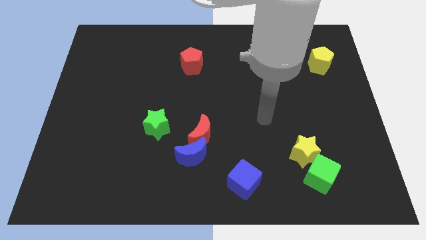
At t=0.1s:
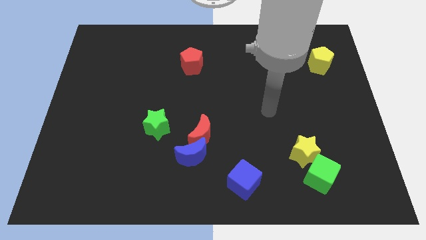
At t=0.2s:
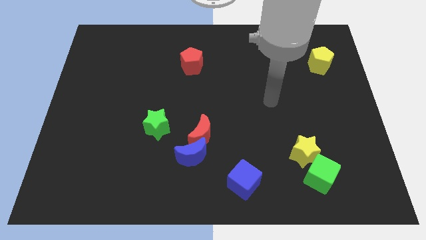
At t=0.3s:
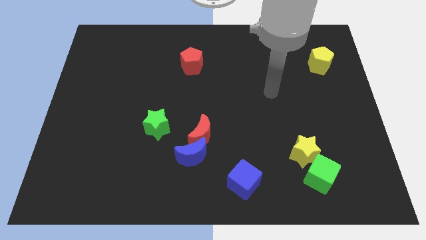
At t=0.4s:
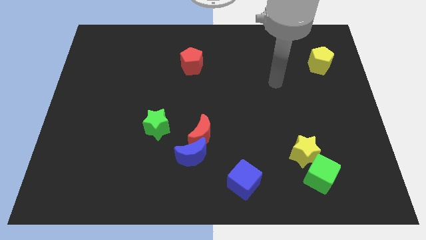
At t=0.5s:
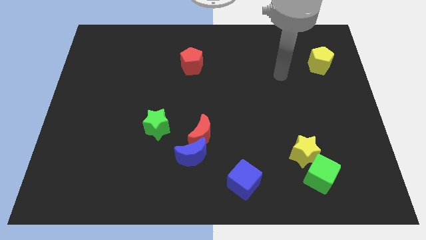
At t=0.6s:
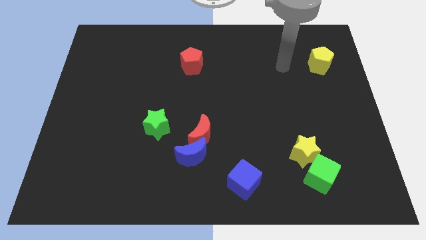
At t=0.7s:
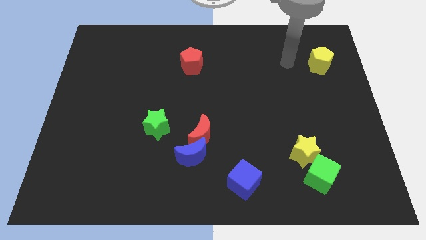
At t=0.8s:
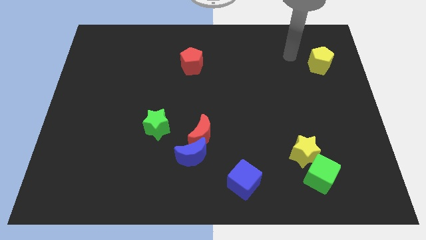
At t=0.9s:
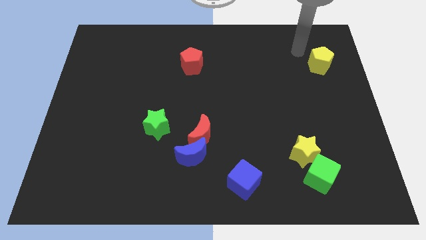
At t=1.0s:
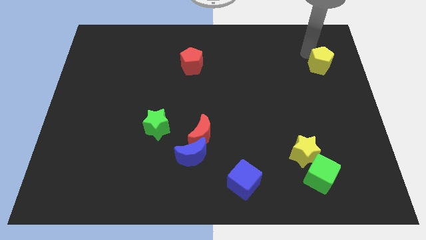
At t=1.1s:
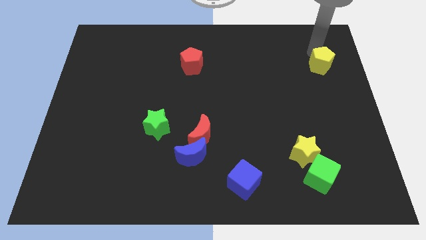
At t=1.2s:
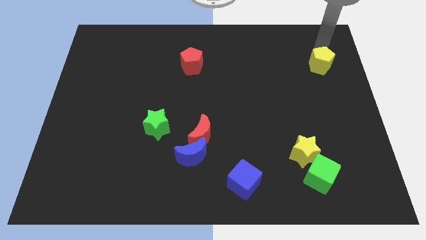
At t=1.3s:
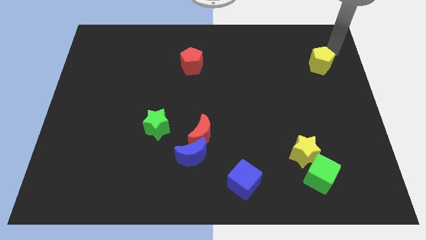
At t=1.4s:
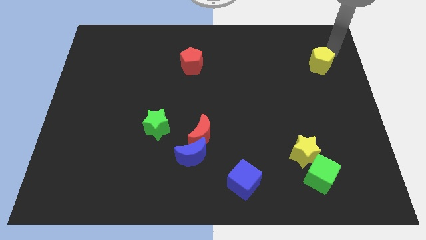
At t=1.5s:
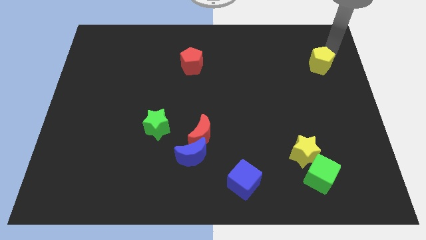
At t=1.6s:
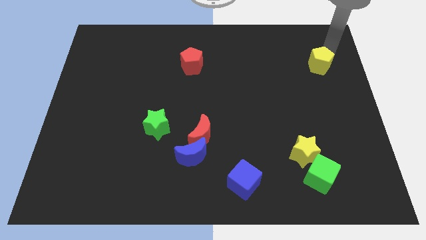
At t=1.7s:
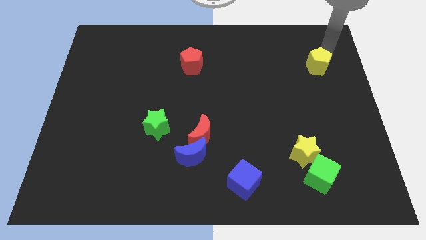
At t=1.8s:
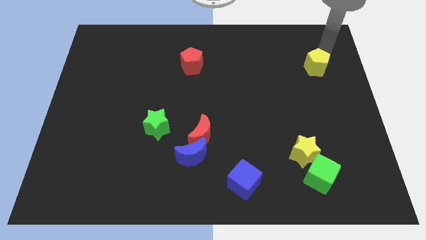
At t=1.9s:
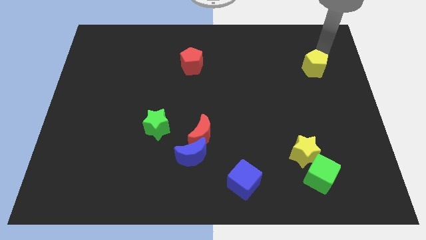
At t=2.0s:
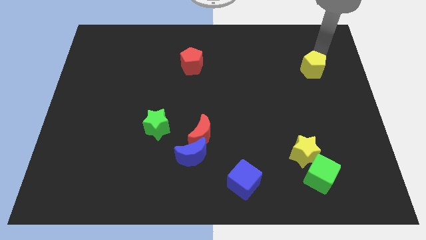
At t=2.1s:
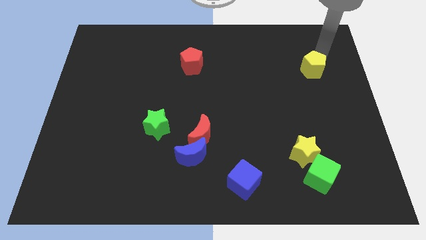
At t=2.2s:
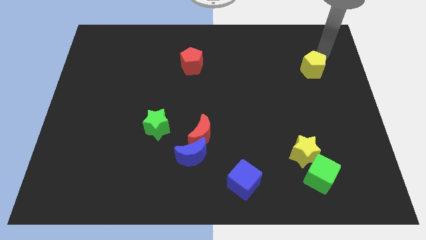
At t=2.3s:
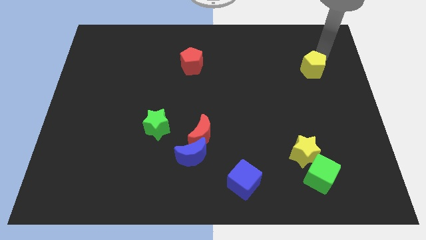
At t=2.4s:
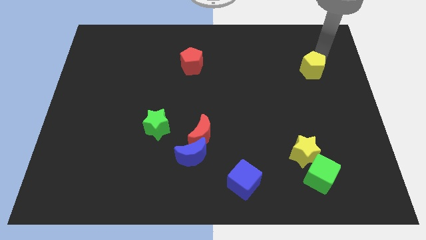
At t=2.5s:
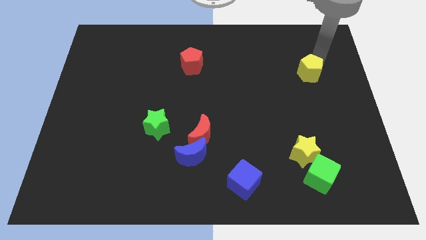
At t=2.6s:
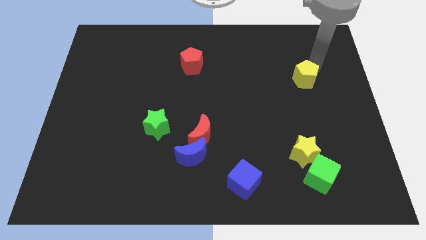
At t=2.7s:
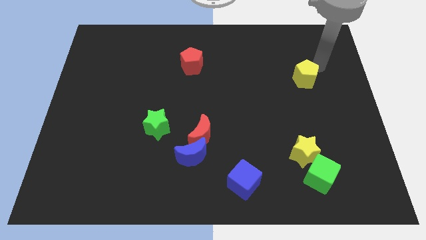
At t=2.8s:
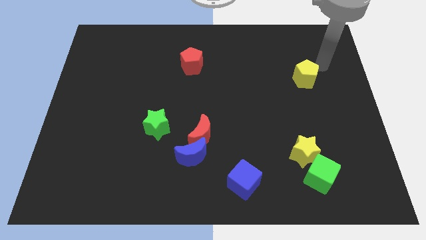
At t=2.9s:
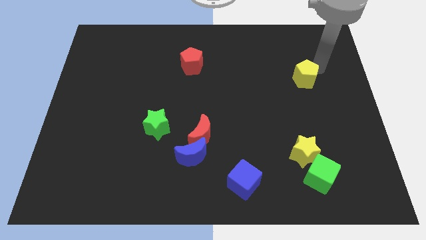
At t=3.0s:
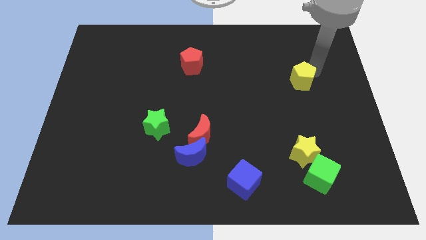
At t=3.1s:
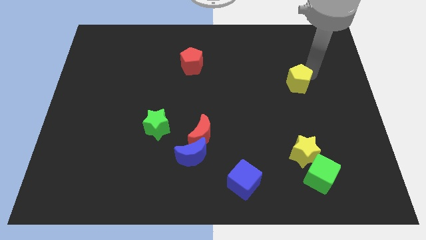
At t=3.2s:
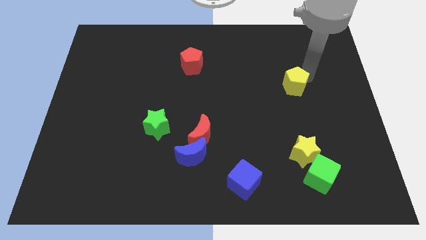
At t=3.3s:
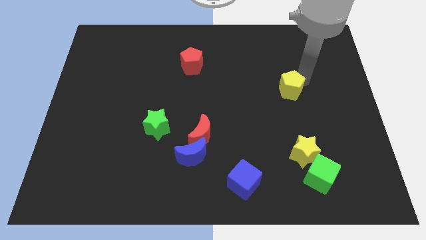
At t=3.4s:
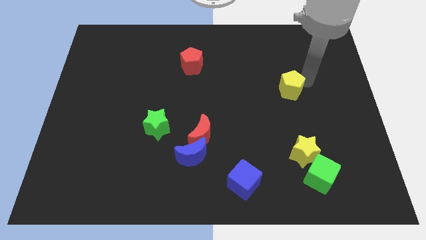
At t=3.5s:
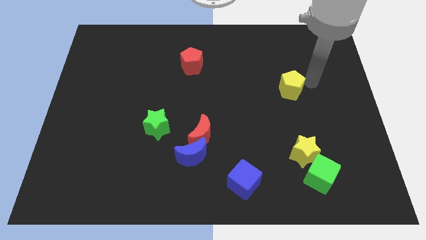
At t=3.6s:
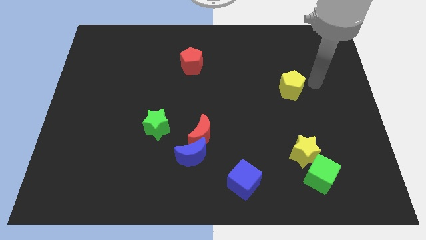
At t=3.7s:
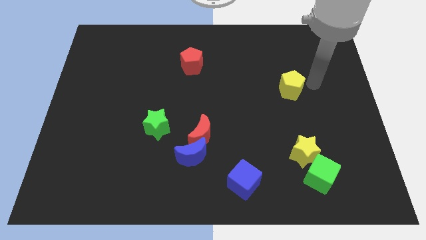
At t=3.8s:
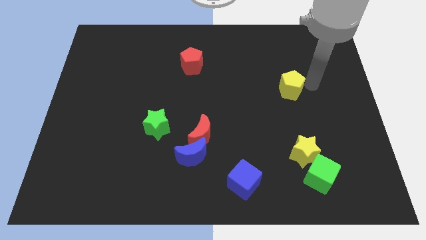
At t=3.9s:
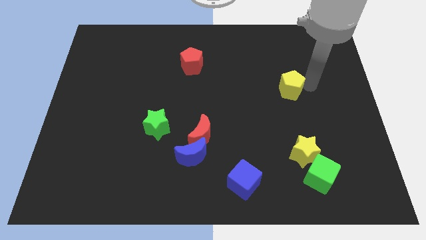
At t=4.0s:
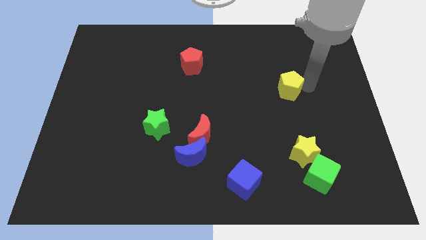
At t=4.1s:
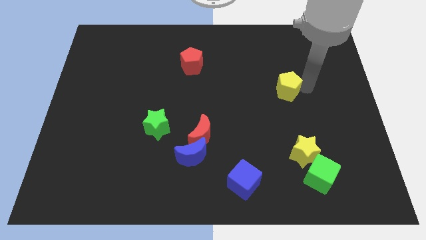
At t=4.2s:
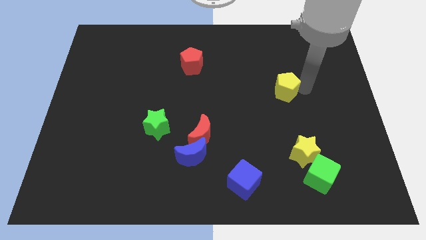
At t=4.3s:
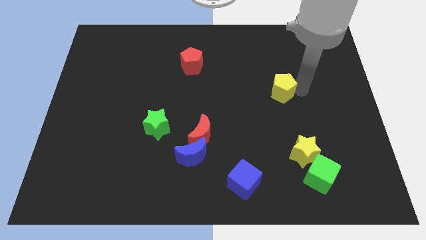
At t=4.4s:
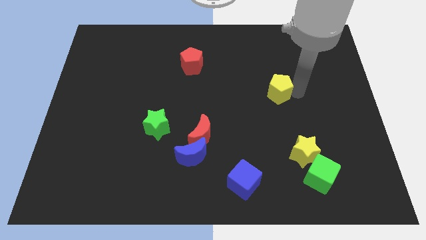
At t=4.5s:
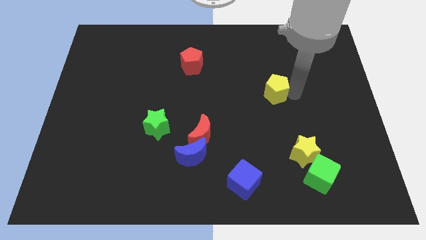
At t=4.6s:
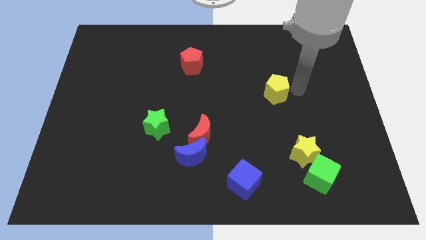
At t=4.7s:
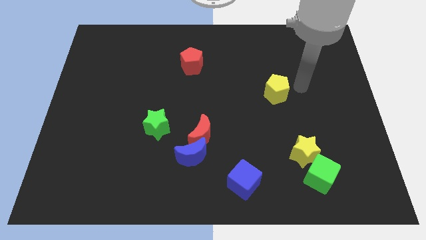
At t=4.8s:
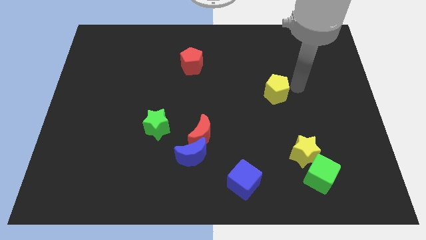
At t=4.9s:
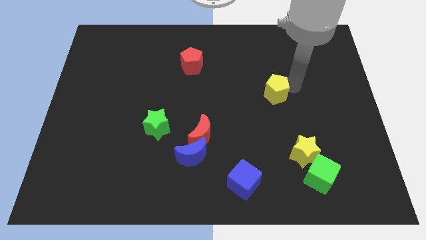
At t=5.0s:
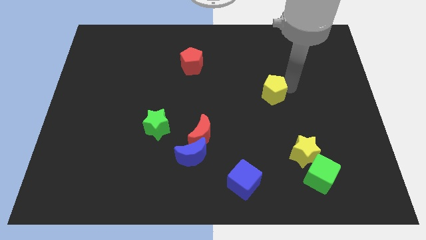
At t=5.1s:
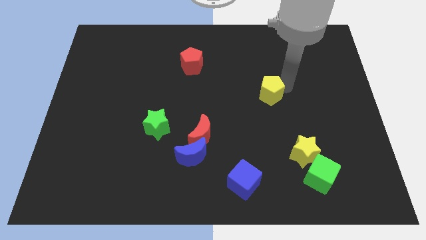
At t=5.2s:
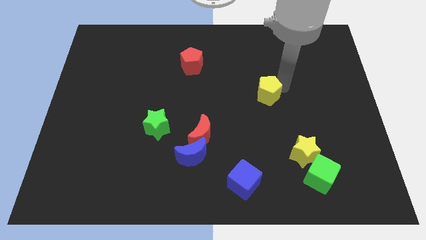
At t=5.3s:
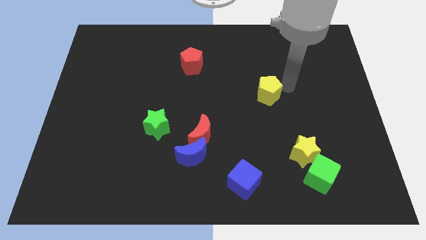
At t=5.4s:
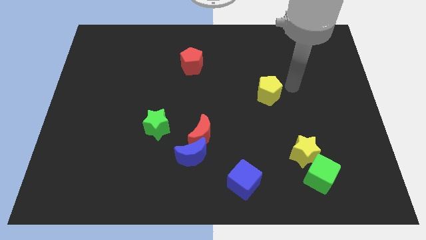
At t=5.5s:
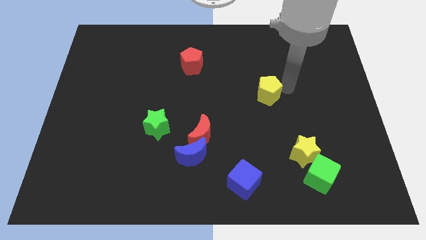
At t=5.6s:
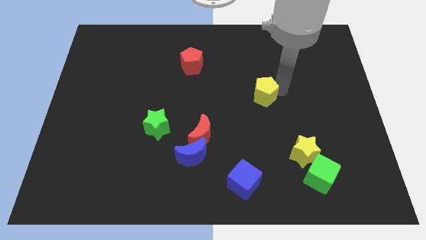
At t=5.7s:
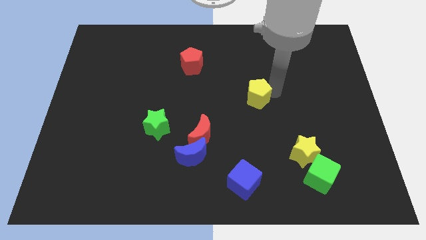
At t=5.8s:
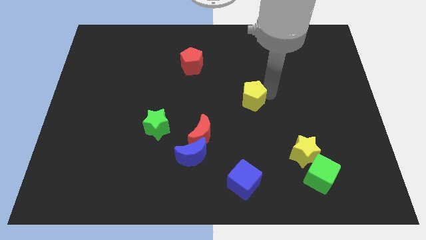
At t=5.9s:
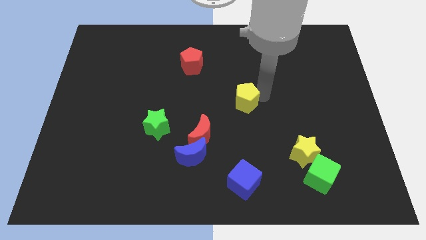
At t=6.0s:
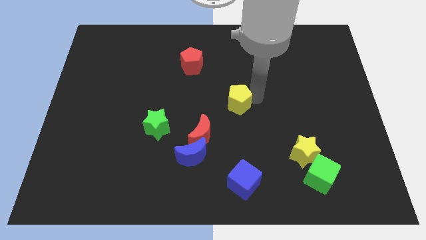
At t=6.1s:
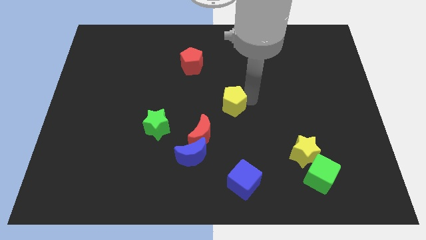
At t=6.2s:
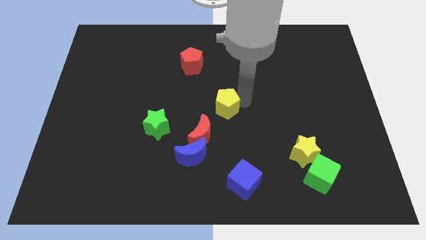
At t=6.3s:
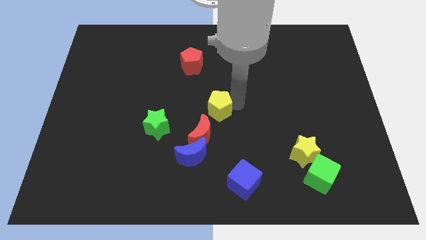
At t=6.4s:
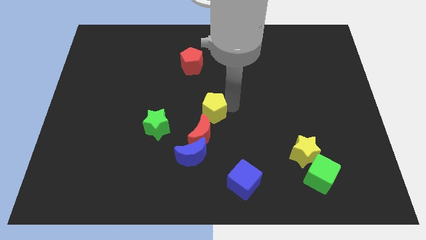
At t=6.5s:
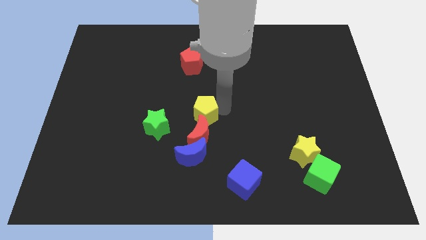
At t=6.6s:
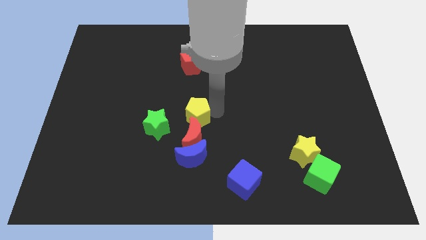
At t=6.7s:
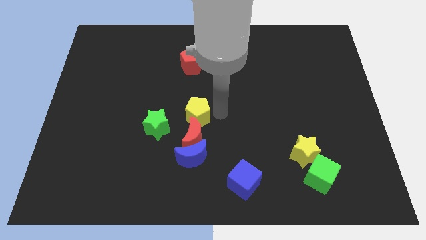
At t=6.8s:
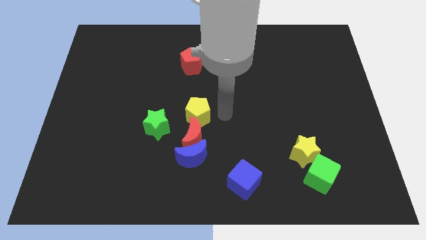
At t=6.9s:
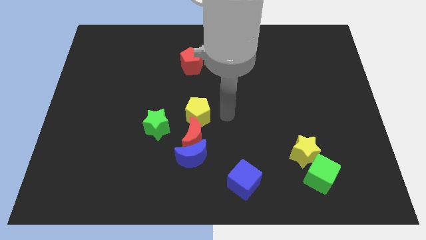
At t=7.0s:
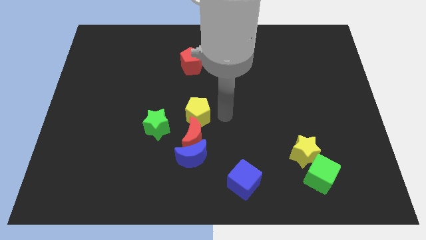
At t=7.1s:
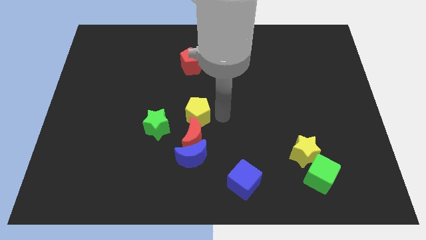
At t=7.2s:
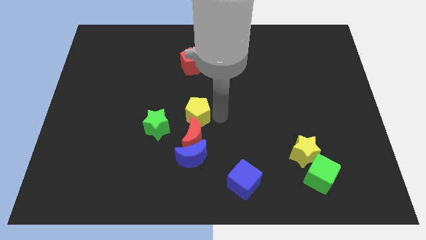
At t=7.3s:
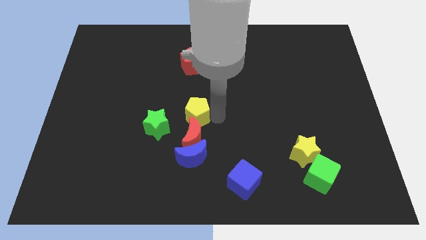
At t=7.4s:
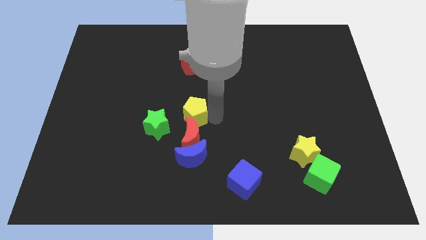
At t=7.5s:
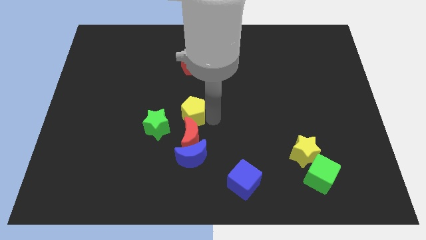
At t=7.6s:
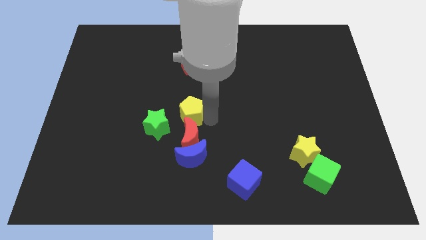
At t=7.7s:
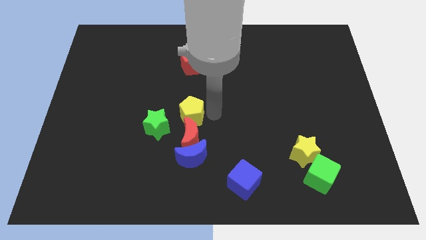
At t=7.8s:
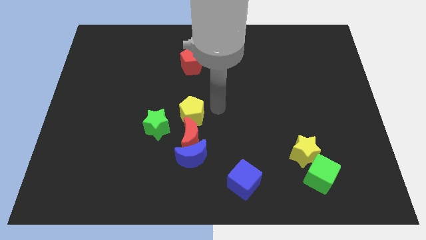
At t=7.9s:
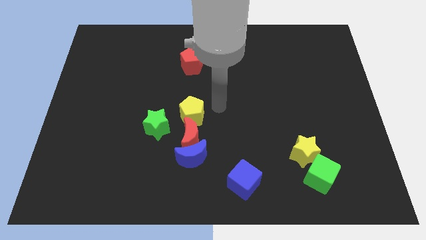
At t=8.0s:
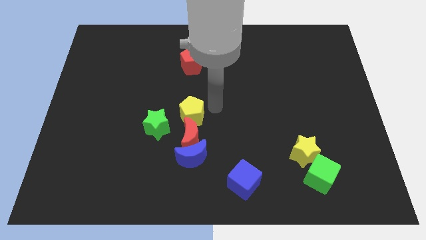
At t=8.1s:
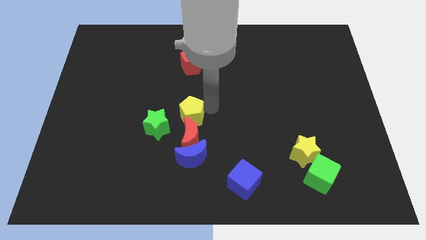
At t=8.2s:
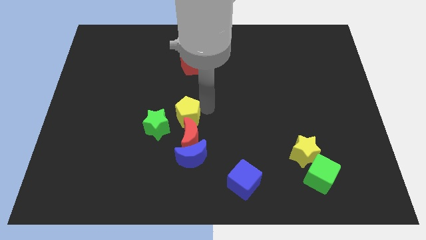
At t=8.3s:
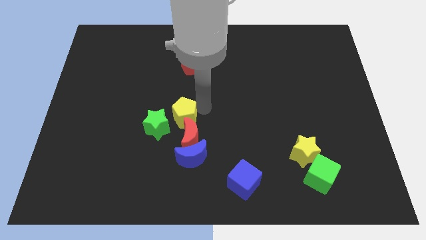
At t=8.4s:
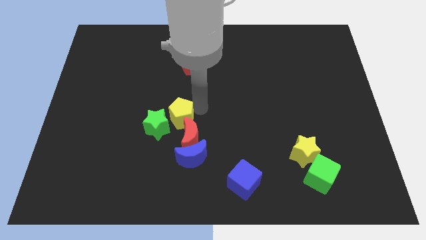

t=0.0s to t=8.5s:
push the yellow pentagon to the green star
